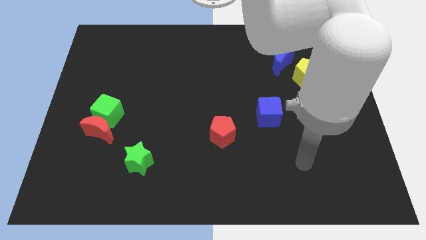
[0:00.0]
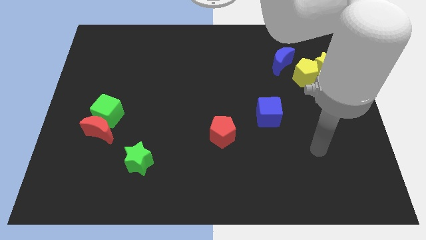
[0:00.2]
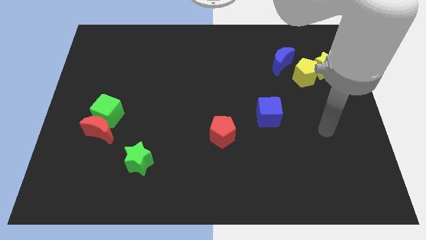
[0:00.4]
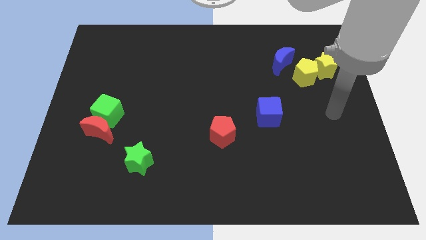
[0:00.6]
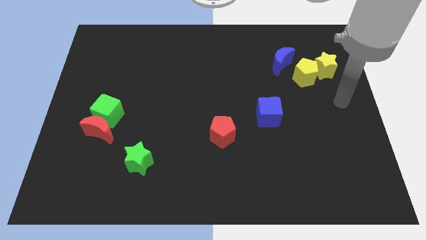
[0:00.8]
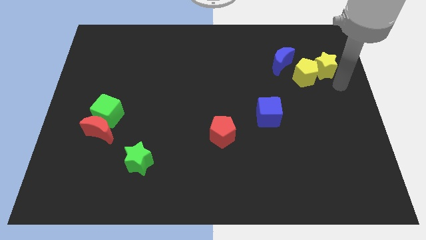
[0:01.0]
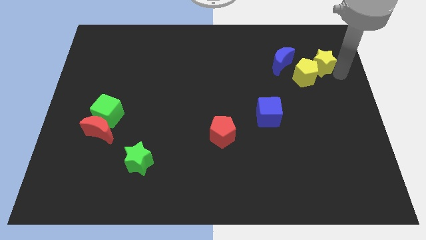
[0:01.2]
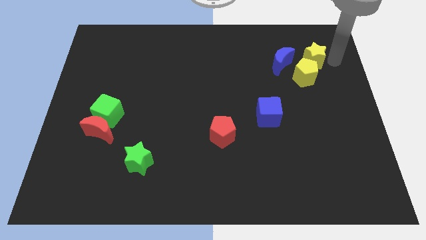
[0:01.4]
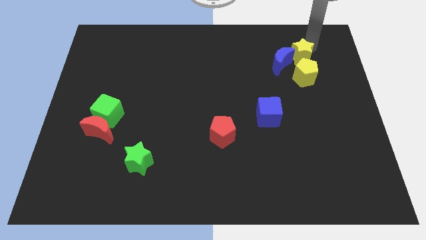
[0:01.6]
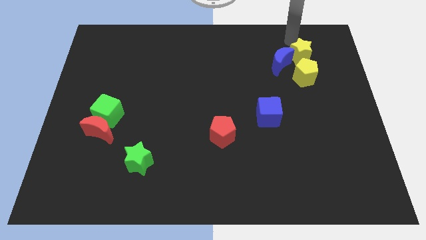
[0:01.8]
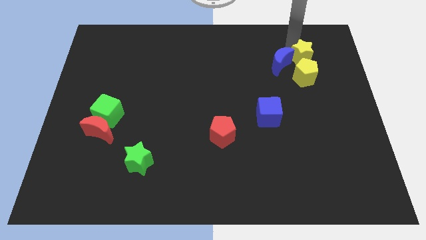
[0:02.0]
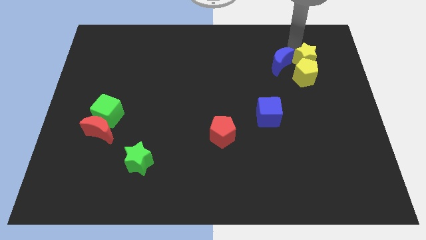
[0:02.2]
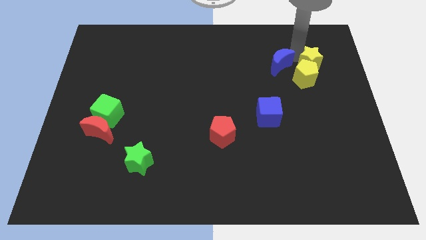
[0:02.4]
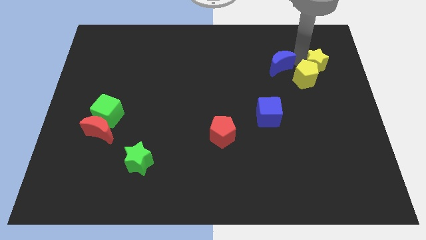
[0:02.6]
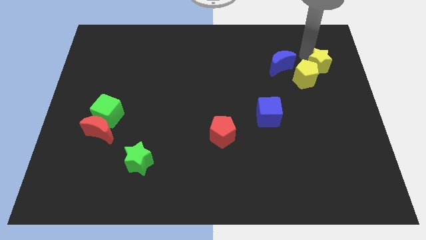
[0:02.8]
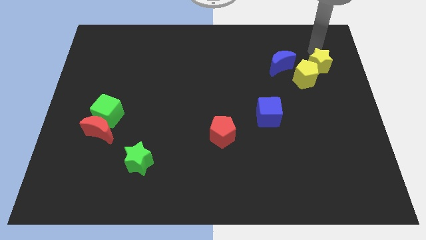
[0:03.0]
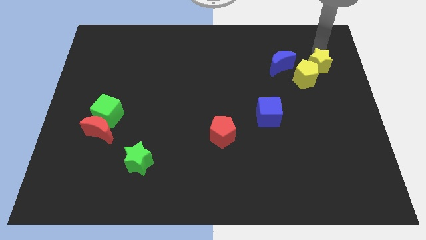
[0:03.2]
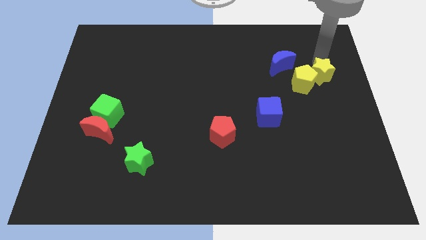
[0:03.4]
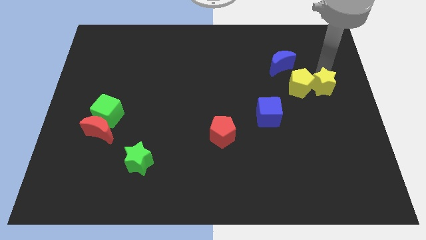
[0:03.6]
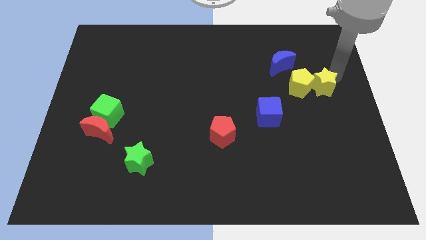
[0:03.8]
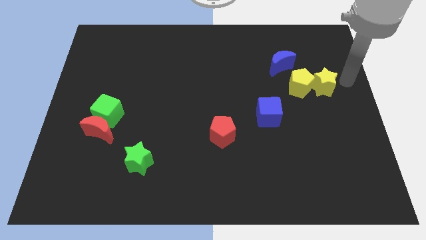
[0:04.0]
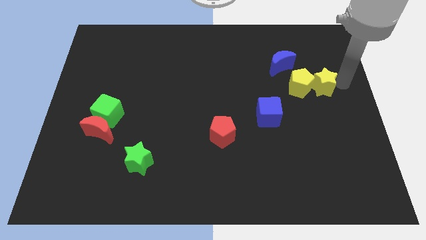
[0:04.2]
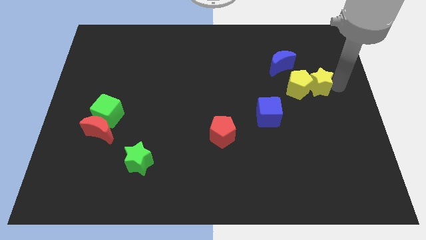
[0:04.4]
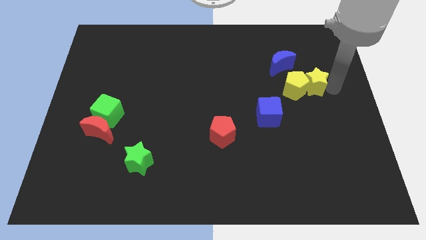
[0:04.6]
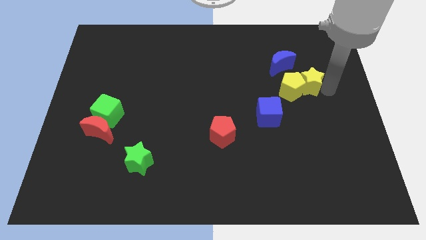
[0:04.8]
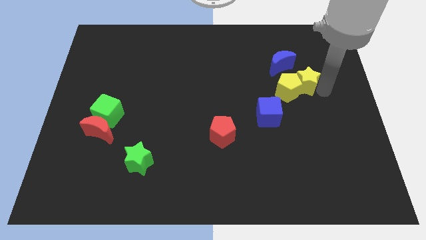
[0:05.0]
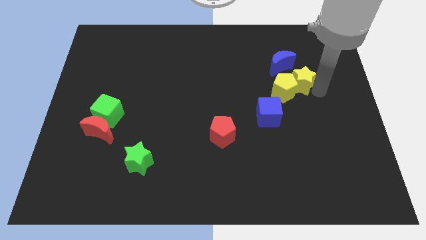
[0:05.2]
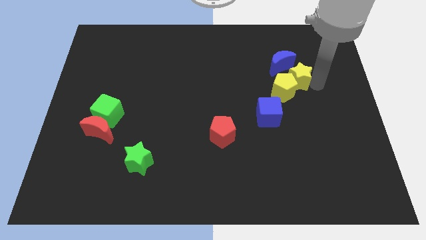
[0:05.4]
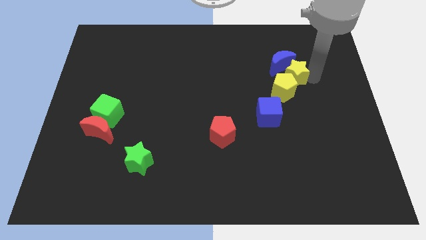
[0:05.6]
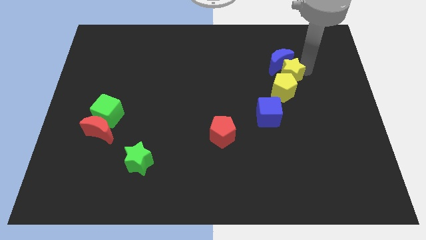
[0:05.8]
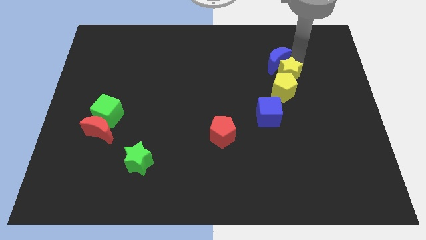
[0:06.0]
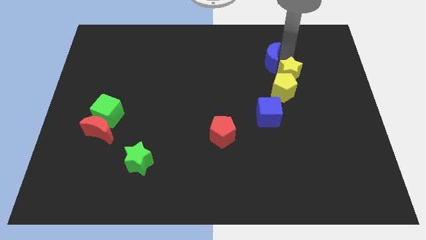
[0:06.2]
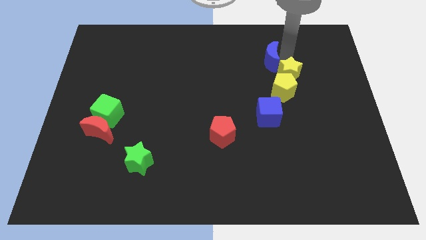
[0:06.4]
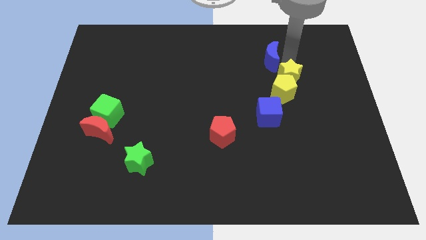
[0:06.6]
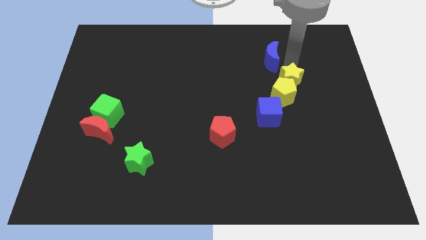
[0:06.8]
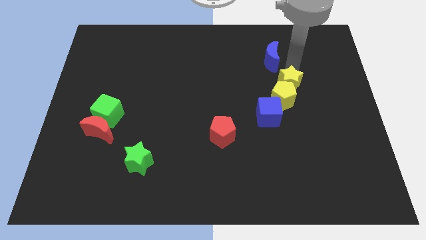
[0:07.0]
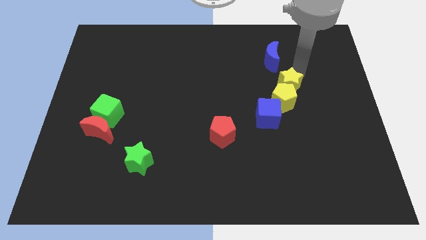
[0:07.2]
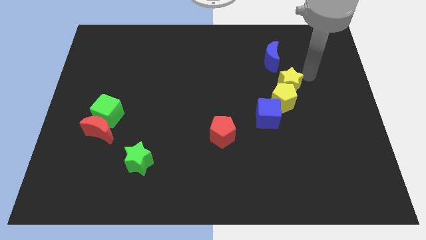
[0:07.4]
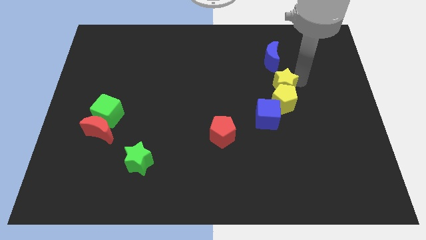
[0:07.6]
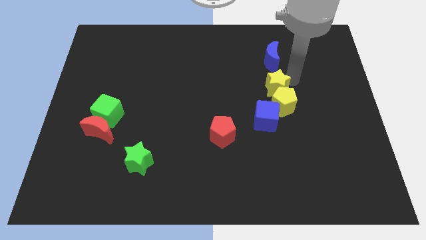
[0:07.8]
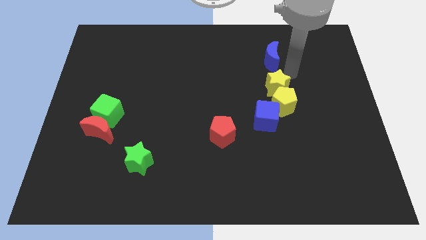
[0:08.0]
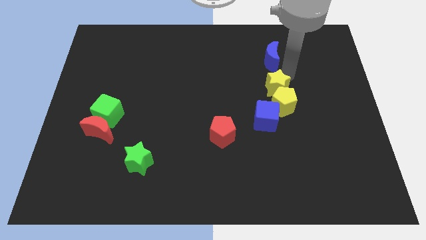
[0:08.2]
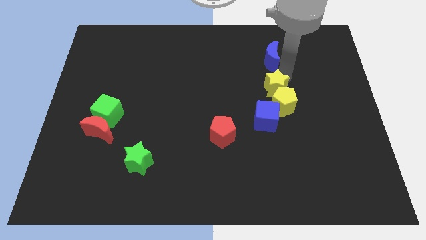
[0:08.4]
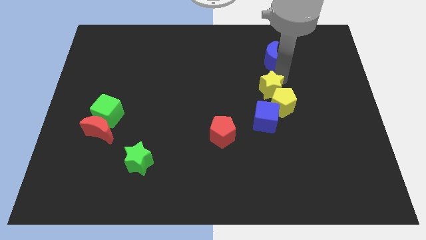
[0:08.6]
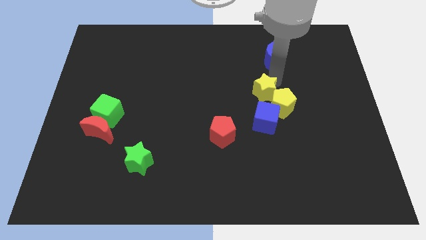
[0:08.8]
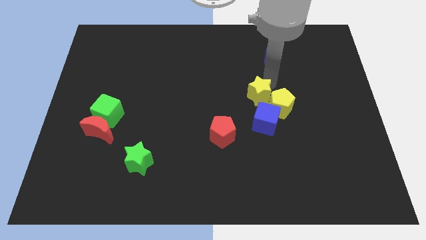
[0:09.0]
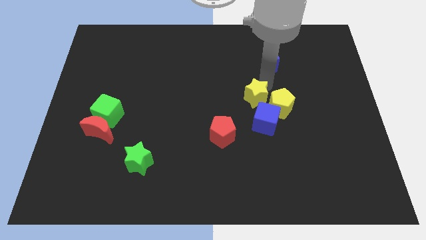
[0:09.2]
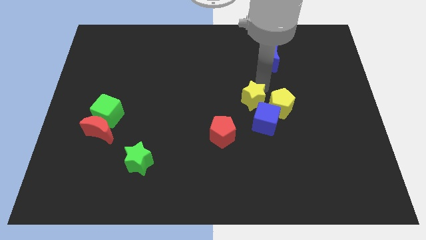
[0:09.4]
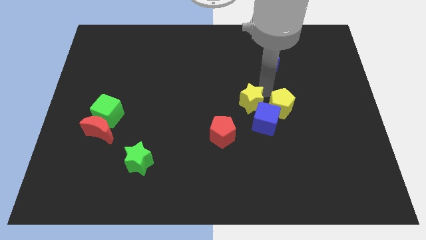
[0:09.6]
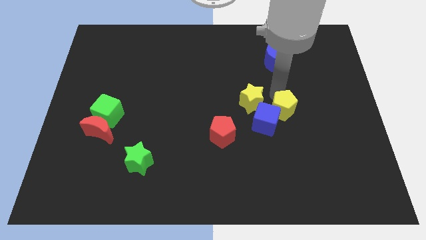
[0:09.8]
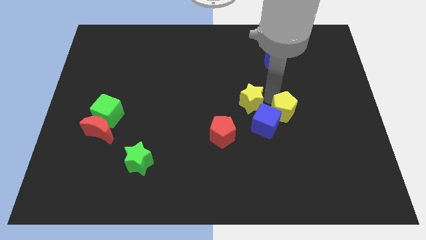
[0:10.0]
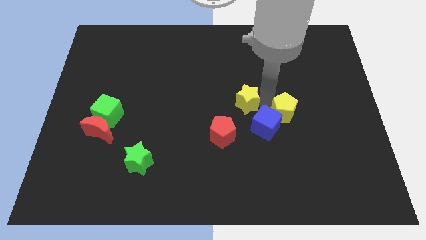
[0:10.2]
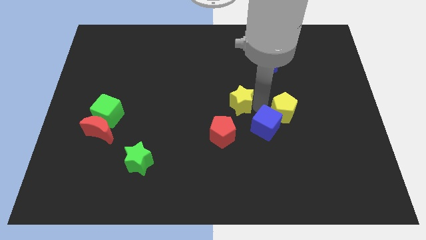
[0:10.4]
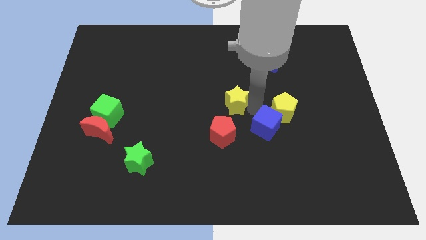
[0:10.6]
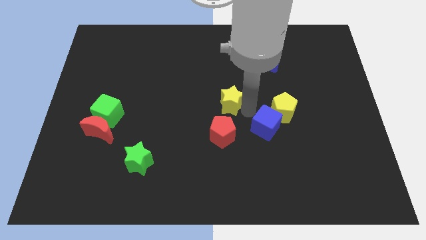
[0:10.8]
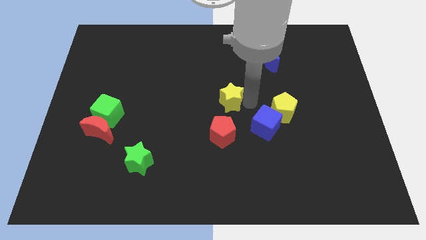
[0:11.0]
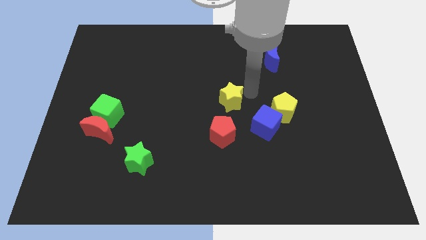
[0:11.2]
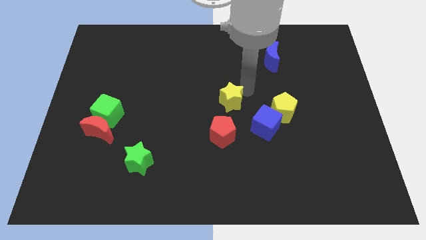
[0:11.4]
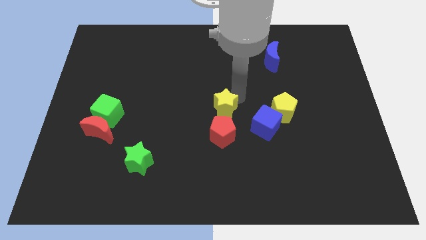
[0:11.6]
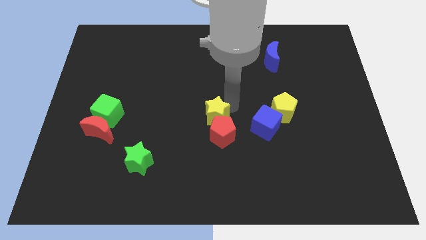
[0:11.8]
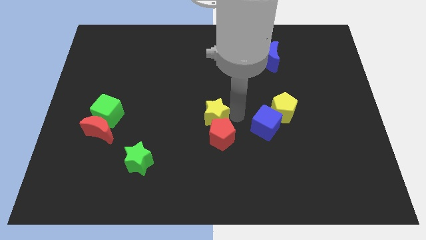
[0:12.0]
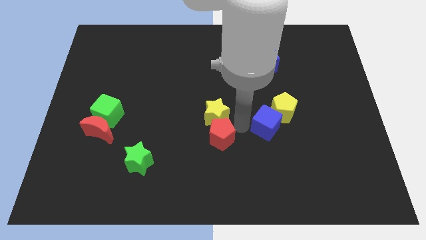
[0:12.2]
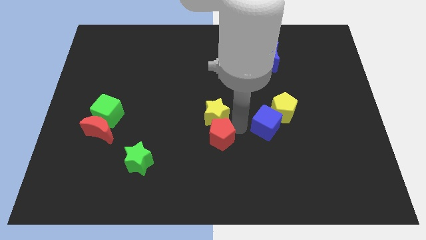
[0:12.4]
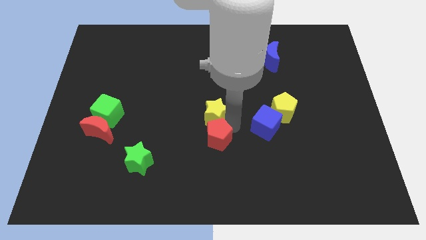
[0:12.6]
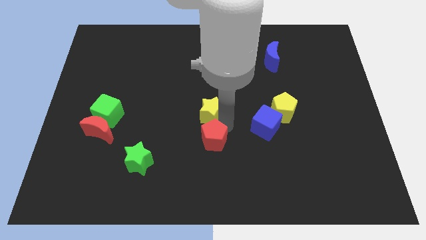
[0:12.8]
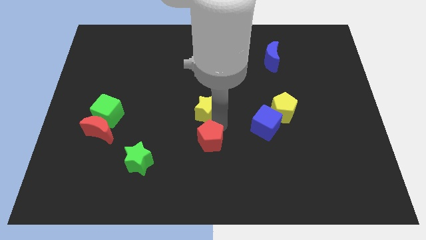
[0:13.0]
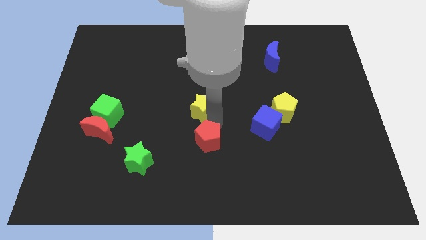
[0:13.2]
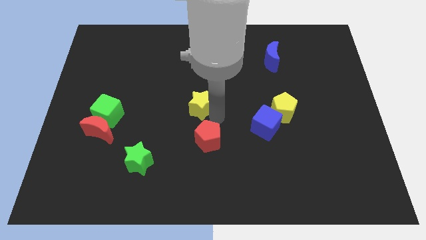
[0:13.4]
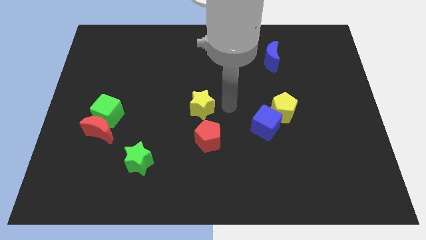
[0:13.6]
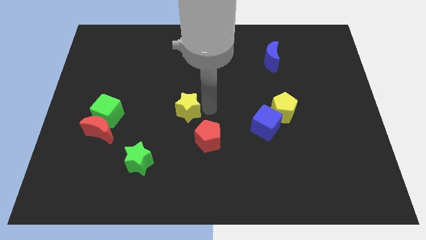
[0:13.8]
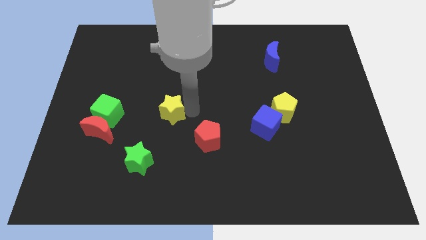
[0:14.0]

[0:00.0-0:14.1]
put the yellow star to the right of the green cube
